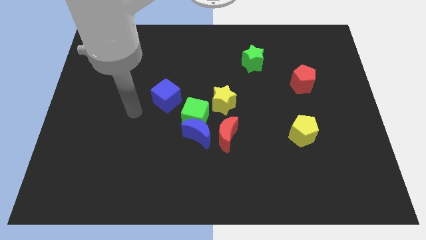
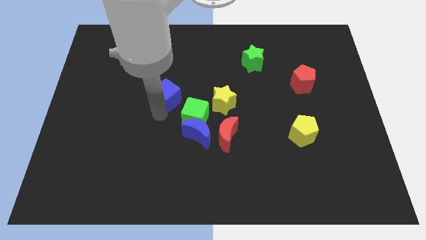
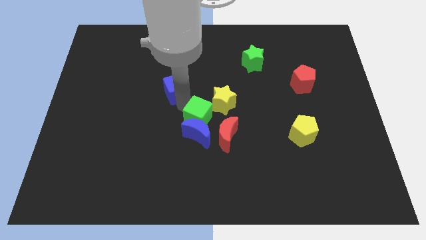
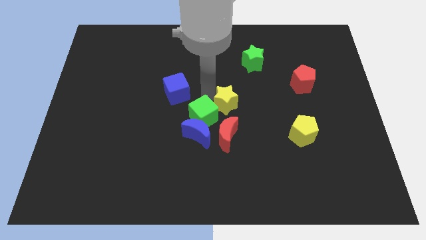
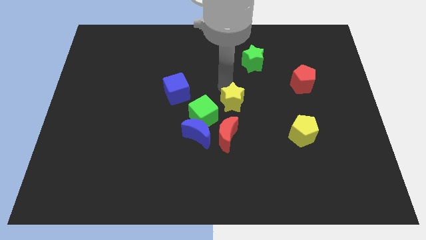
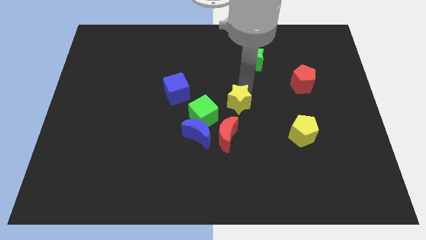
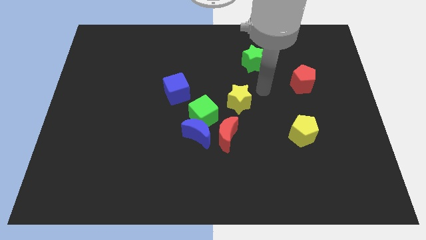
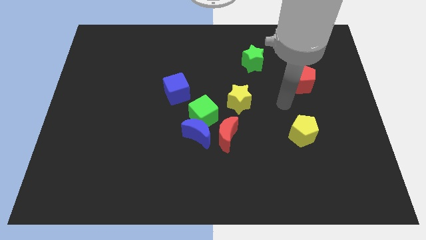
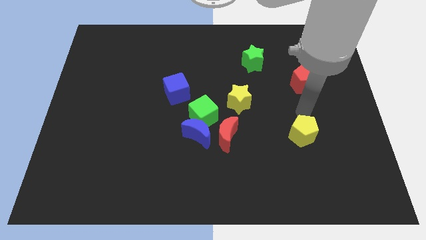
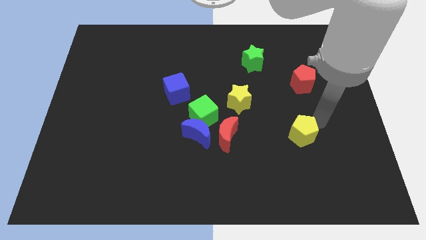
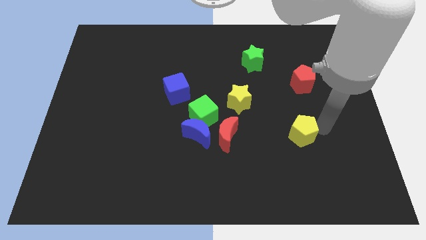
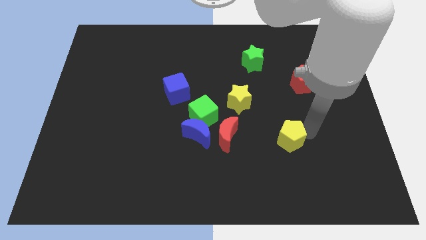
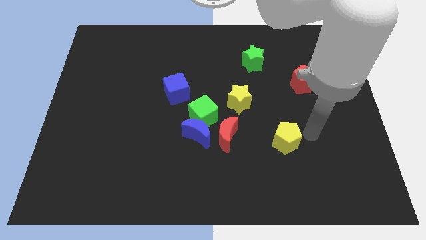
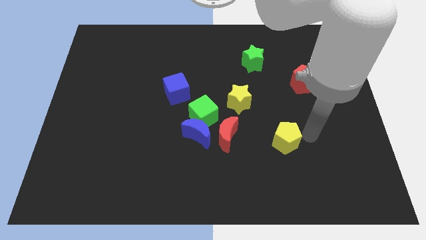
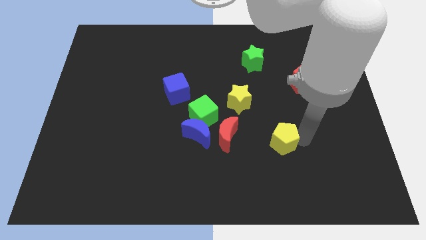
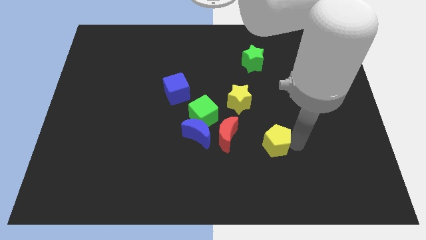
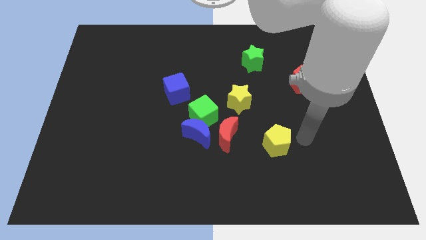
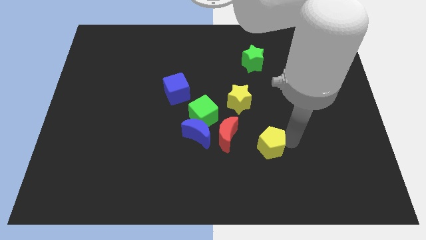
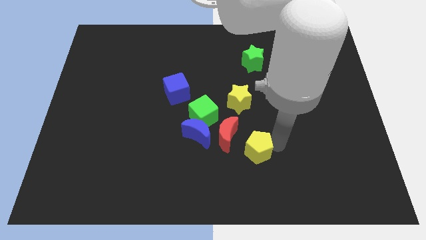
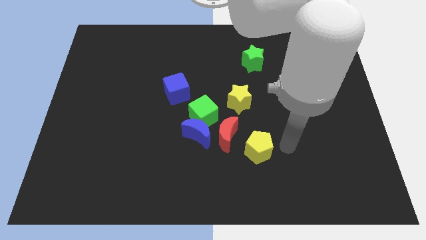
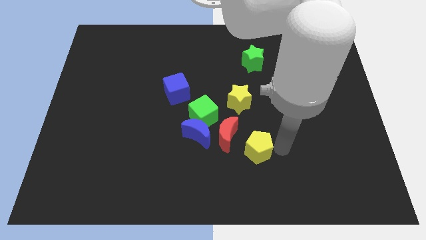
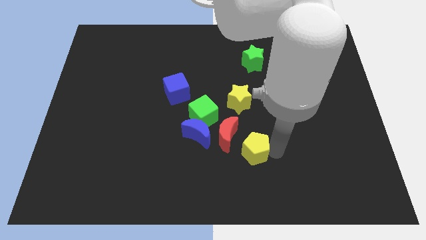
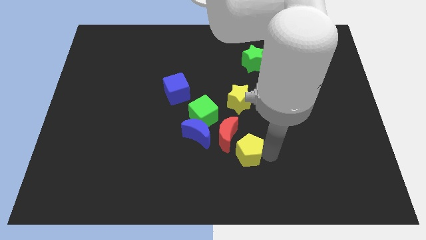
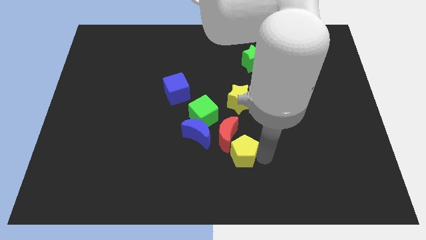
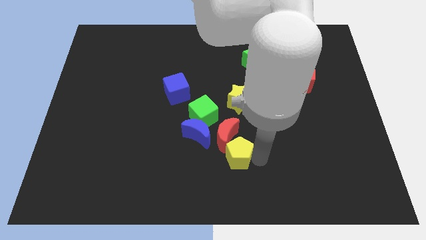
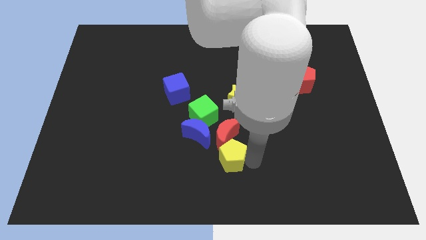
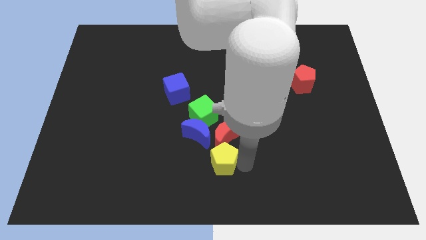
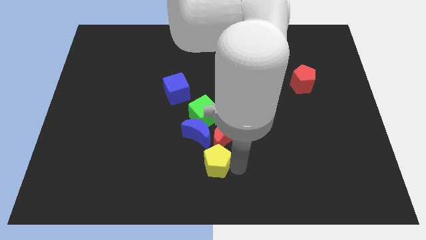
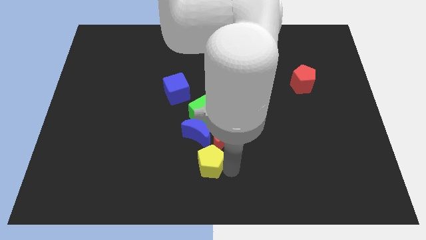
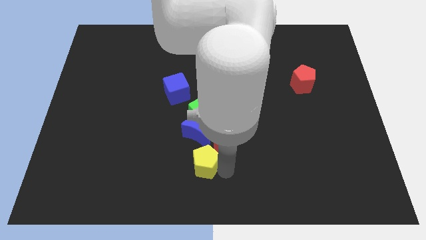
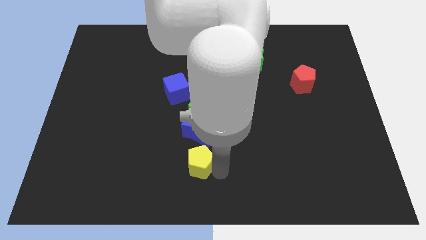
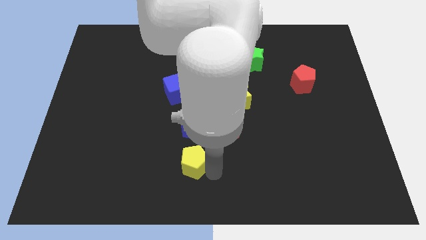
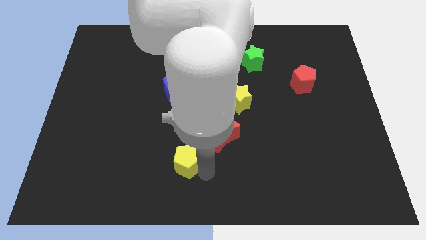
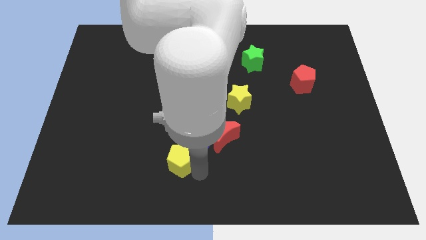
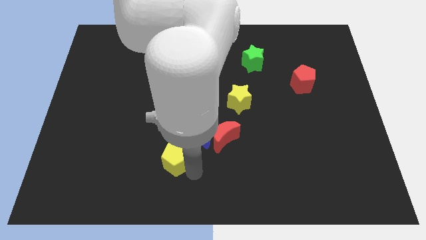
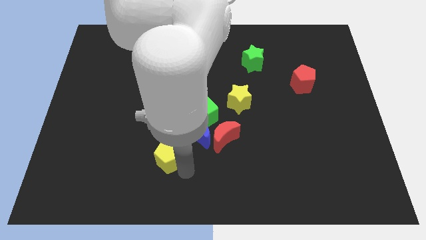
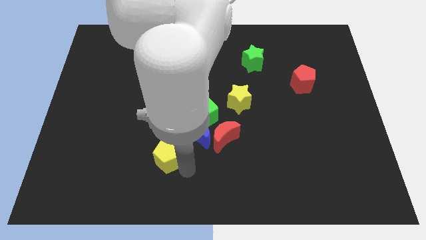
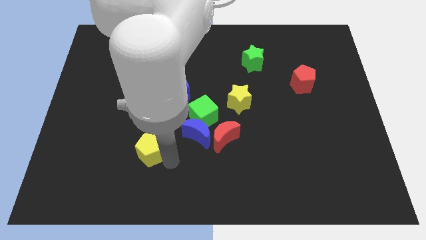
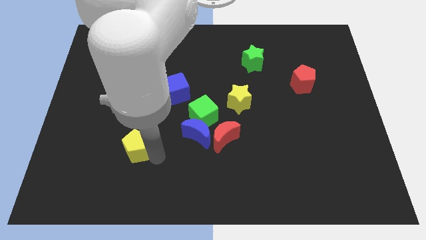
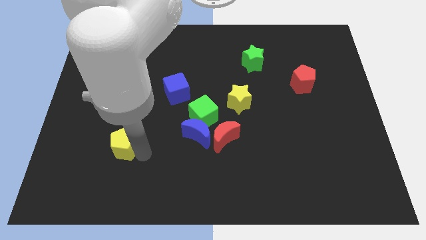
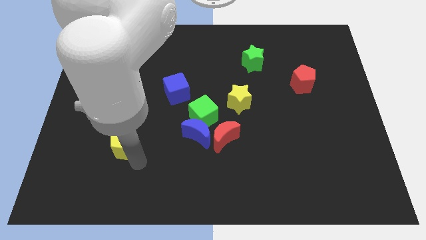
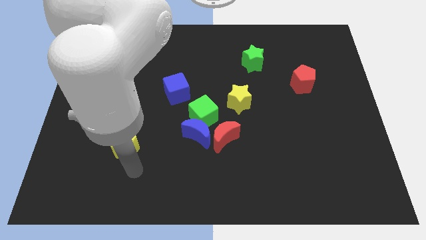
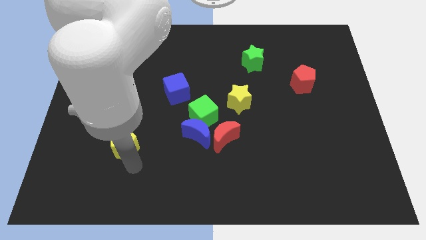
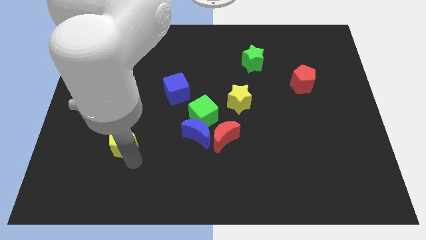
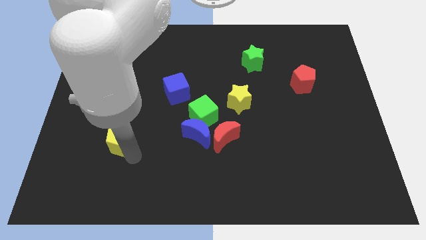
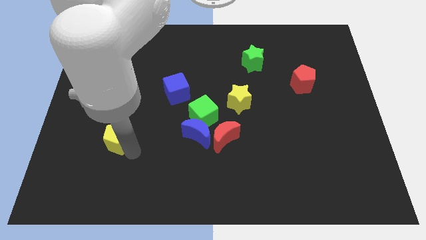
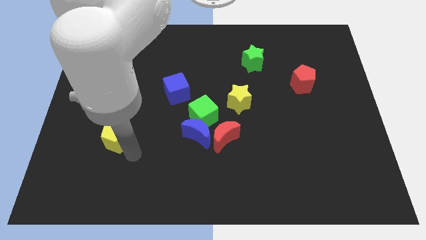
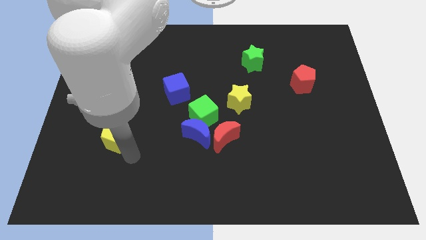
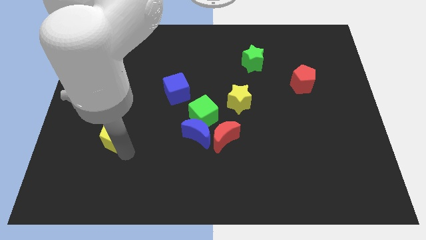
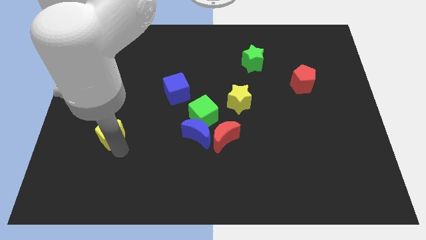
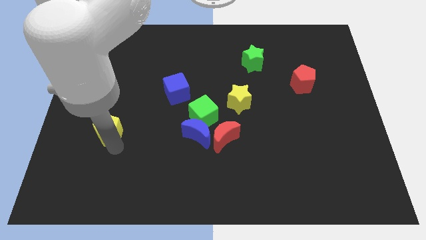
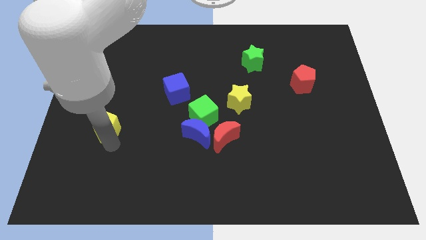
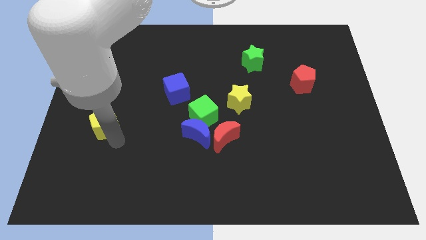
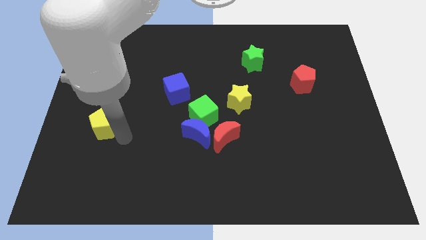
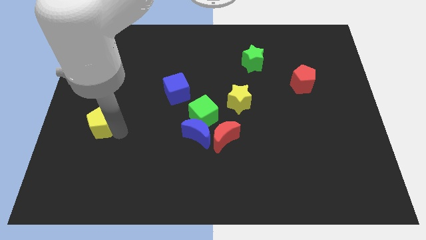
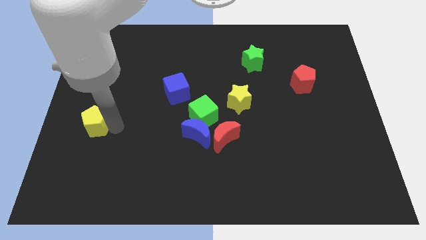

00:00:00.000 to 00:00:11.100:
push the yellow pentagon to the left side

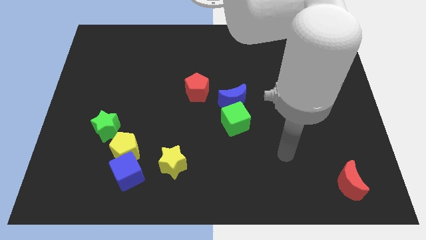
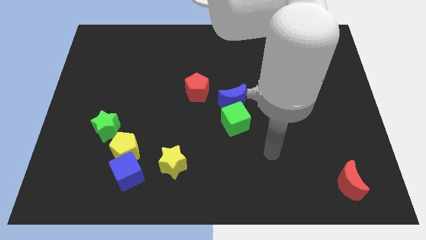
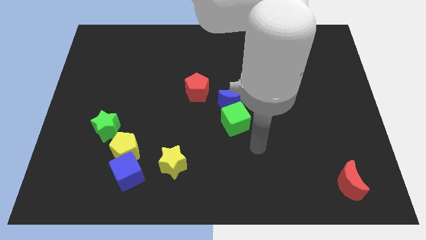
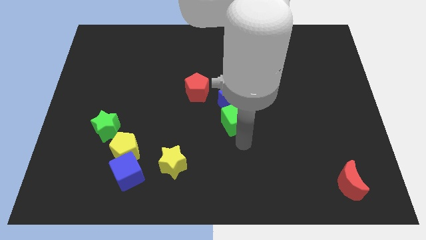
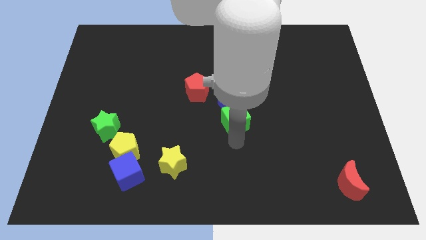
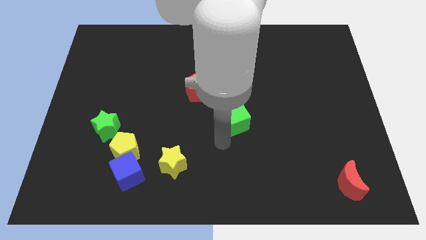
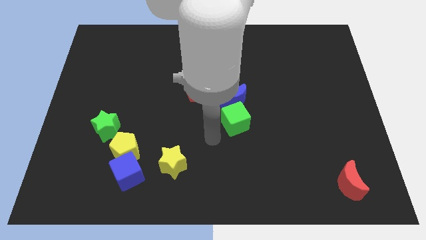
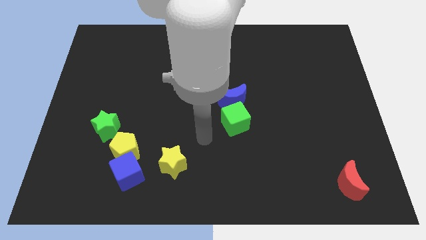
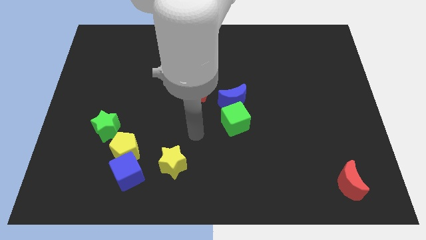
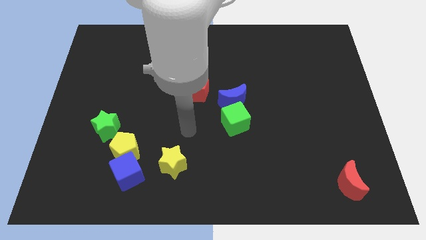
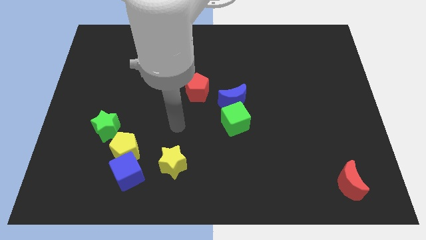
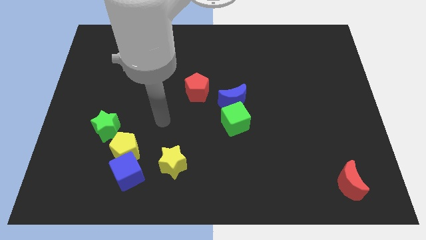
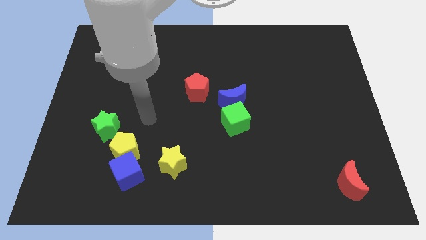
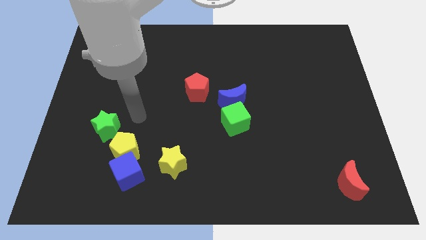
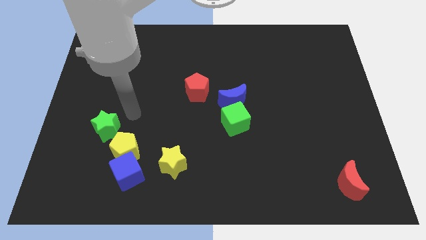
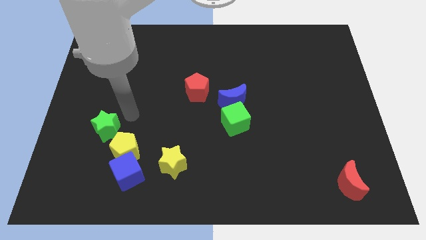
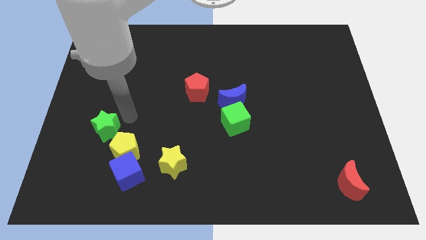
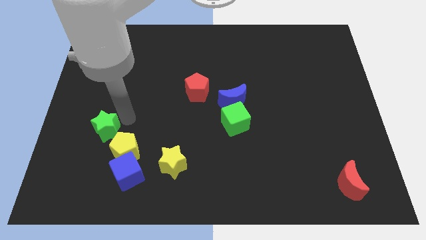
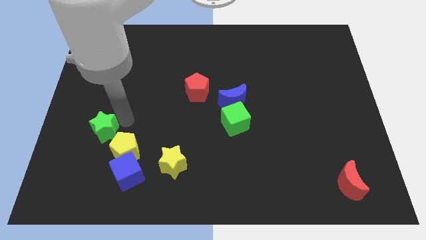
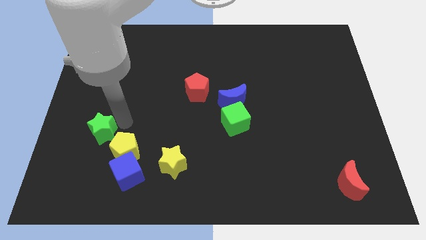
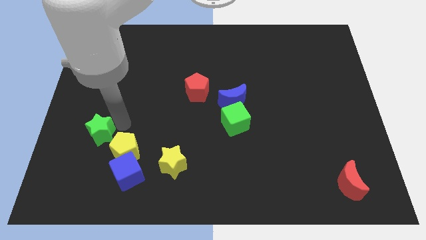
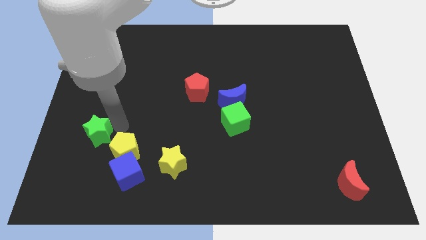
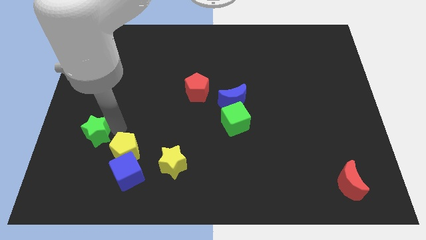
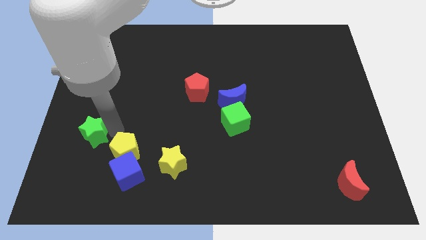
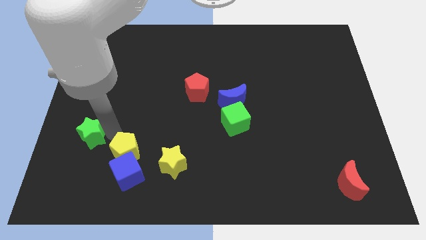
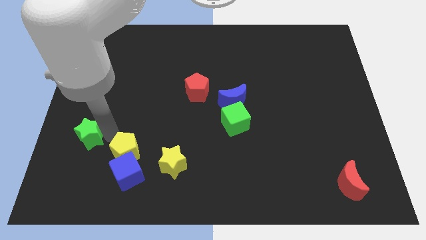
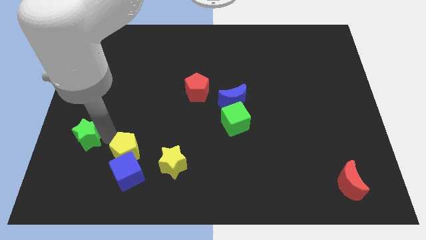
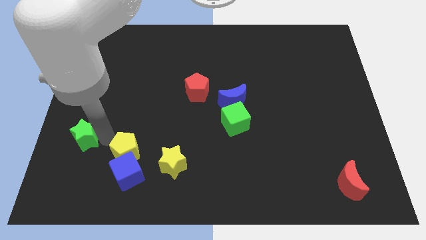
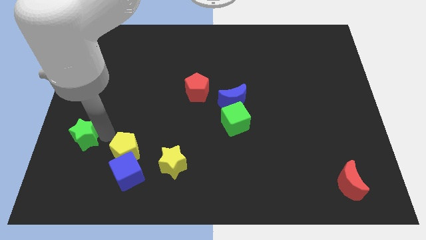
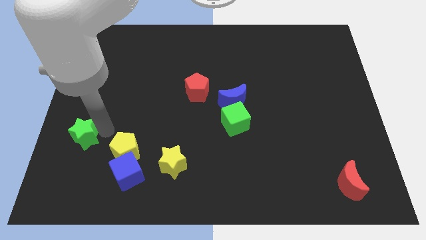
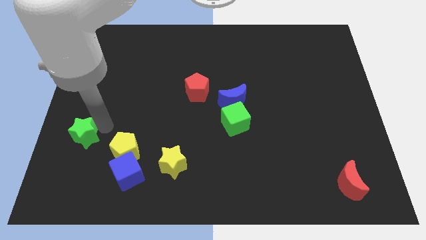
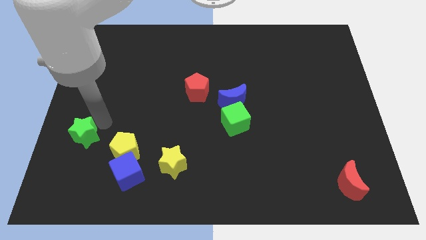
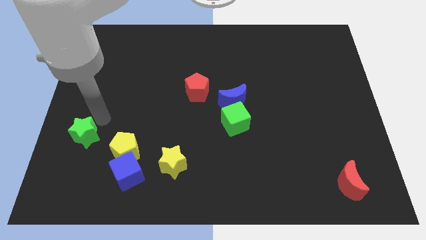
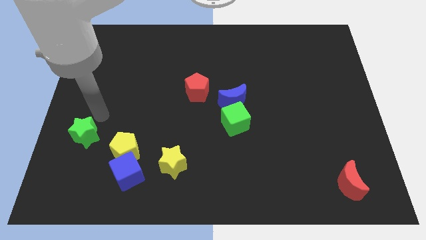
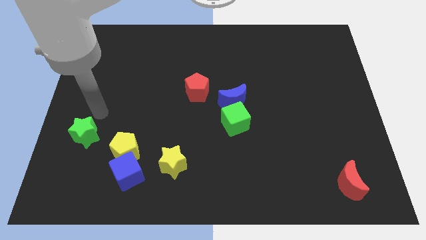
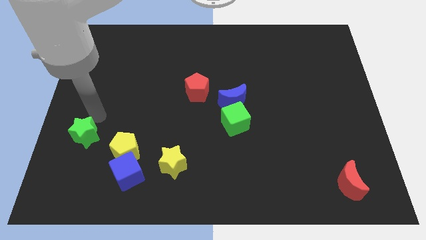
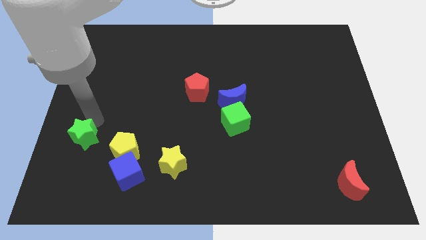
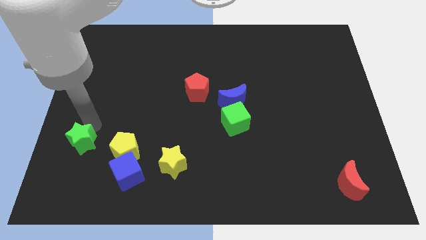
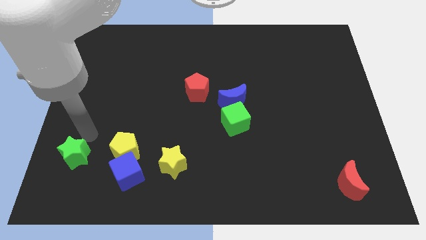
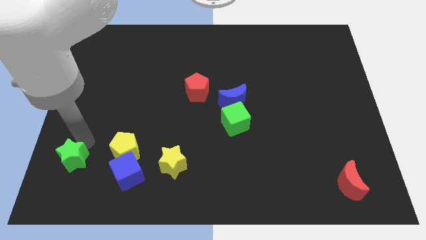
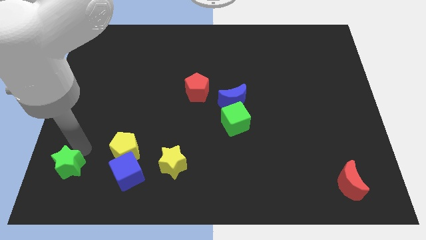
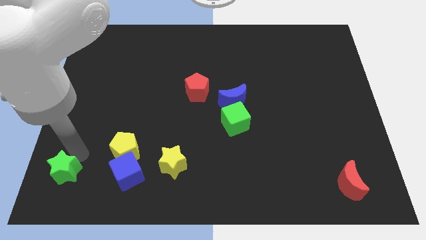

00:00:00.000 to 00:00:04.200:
slide the green star to the bottom left of the board
